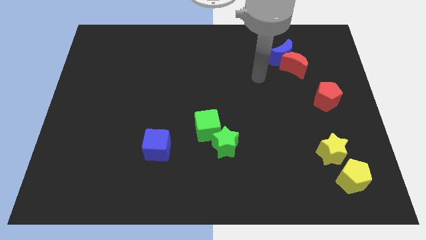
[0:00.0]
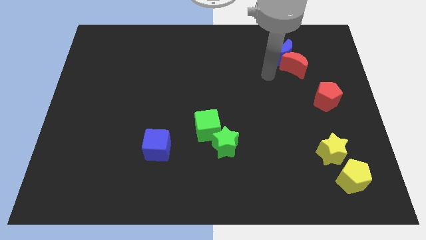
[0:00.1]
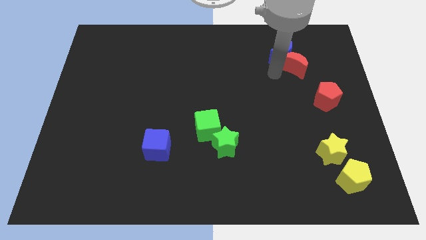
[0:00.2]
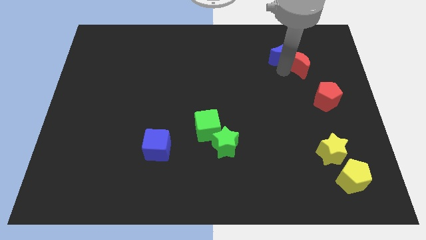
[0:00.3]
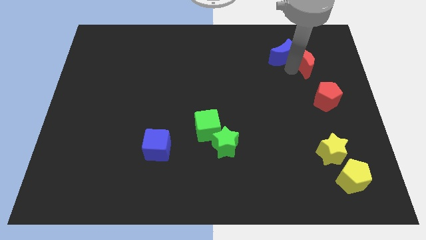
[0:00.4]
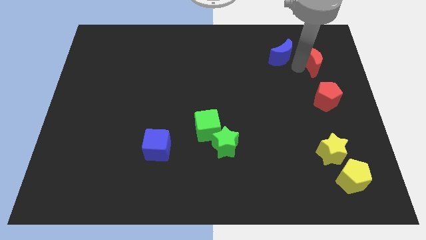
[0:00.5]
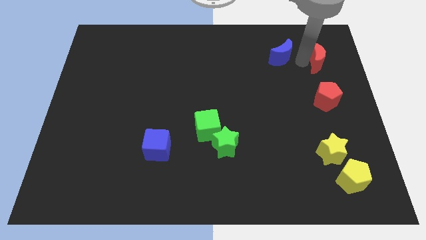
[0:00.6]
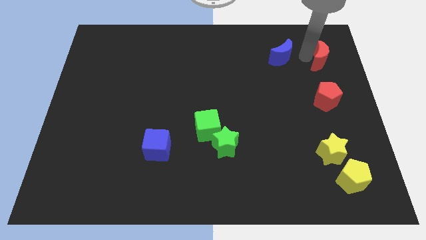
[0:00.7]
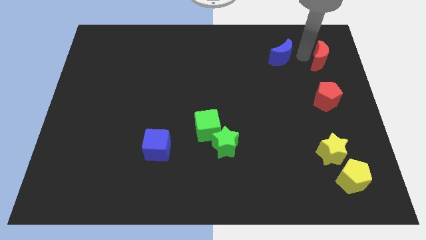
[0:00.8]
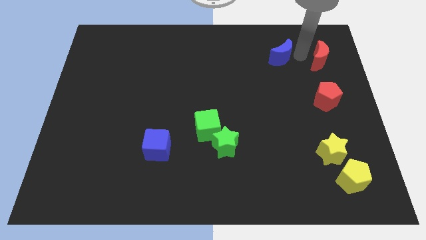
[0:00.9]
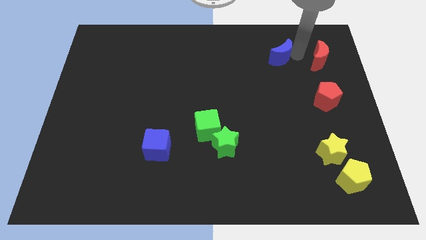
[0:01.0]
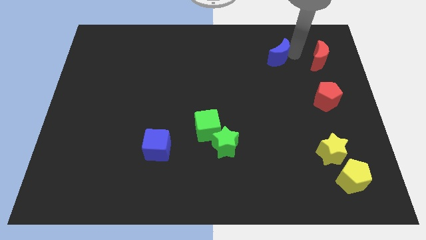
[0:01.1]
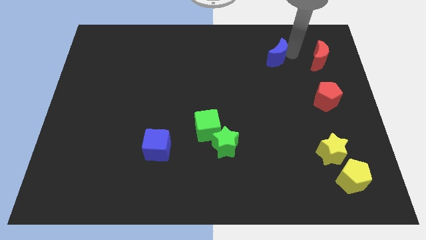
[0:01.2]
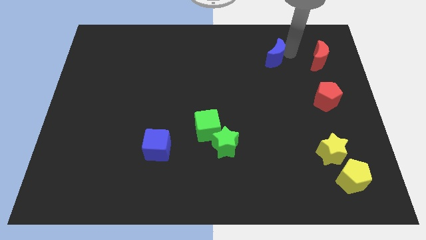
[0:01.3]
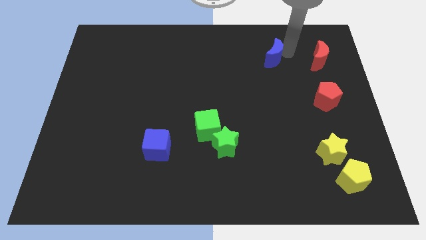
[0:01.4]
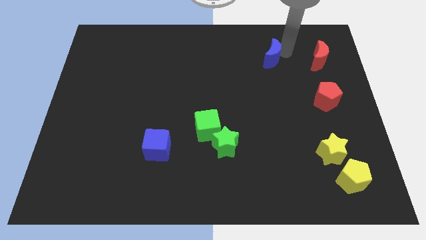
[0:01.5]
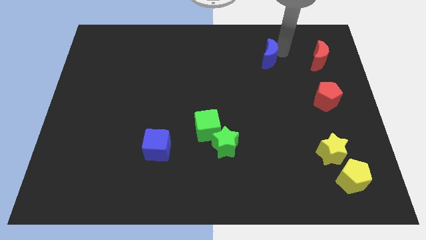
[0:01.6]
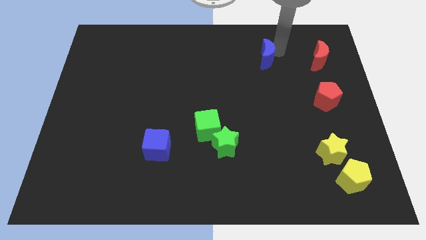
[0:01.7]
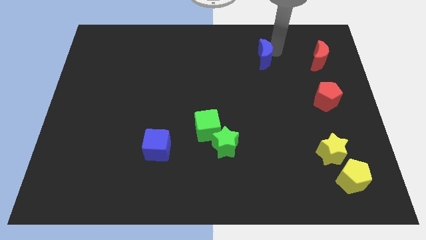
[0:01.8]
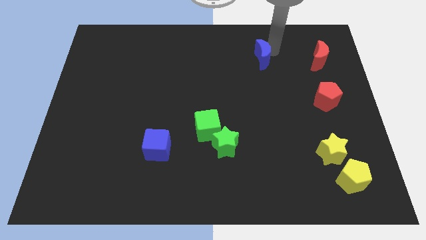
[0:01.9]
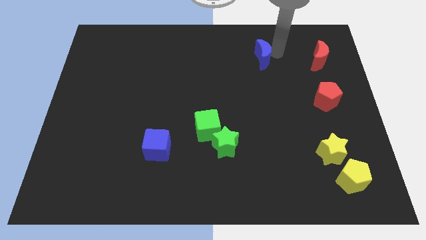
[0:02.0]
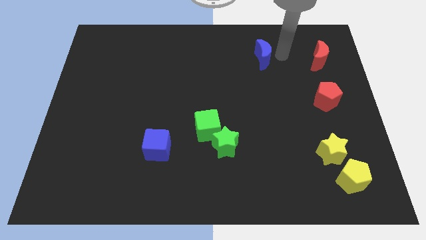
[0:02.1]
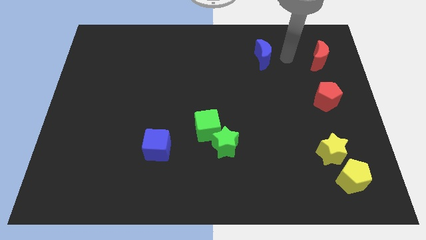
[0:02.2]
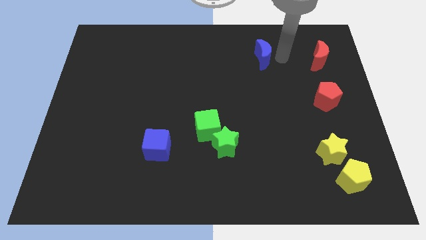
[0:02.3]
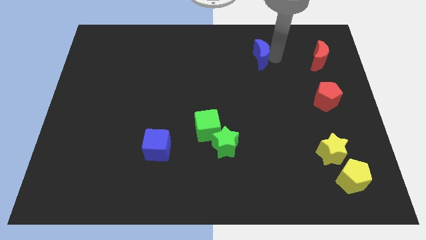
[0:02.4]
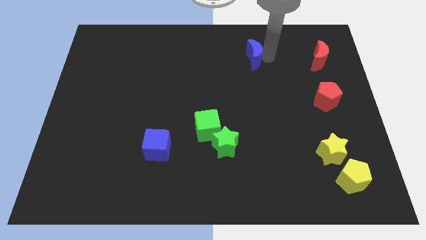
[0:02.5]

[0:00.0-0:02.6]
slightly push the blue moon to the left

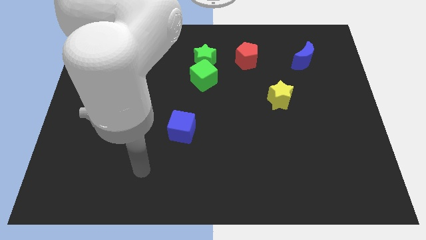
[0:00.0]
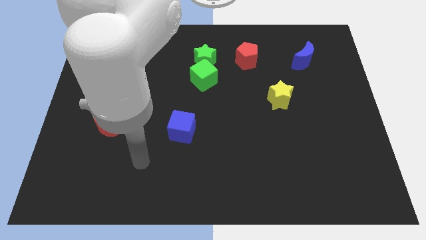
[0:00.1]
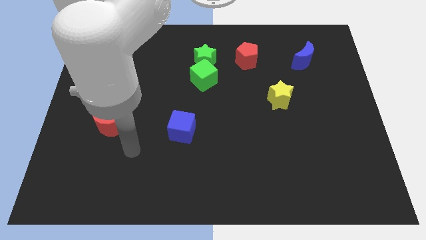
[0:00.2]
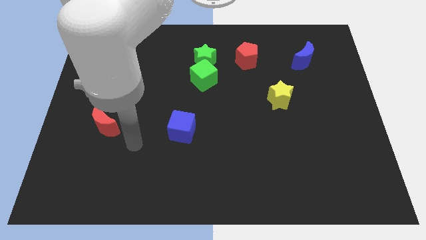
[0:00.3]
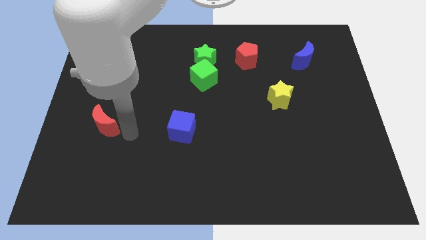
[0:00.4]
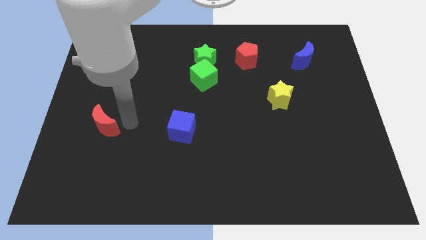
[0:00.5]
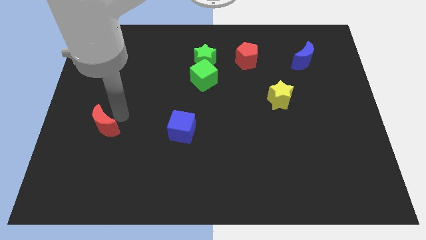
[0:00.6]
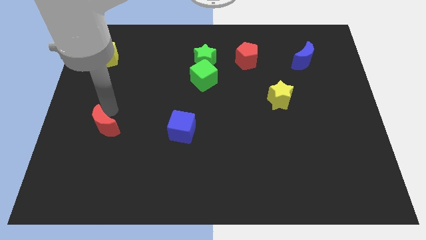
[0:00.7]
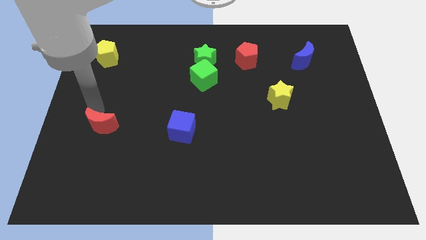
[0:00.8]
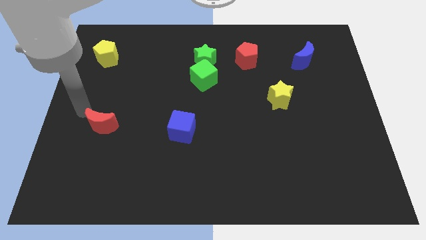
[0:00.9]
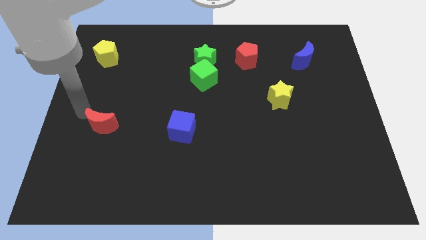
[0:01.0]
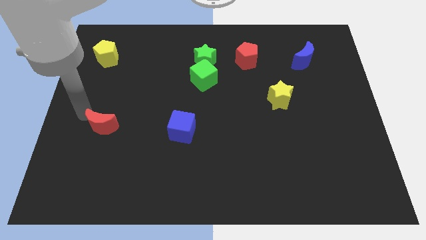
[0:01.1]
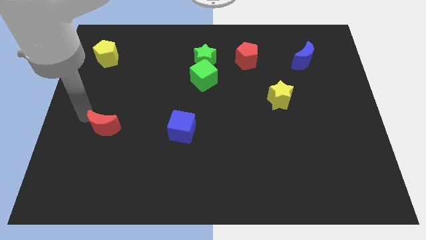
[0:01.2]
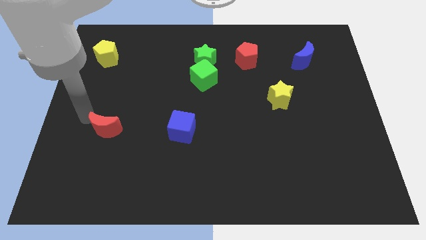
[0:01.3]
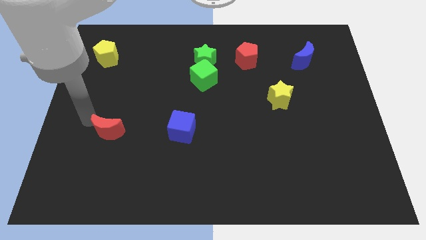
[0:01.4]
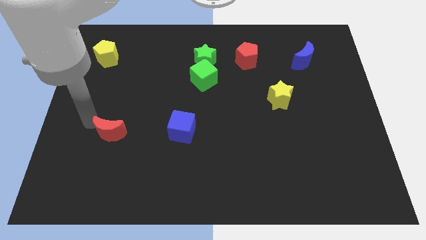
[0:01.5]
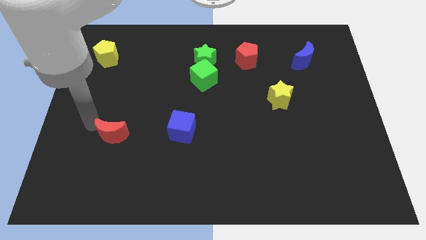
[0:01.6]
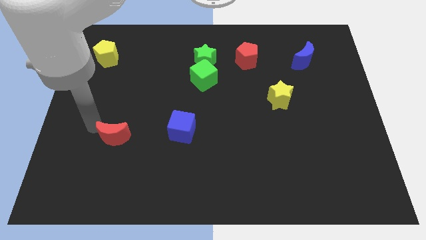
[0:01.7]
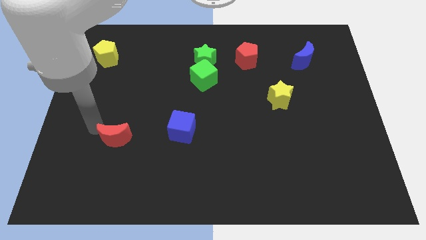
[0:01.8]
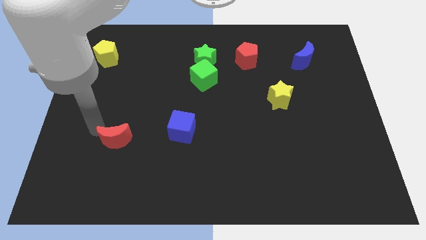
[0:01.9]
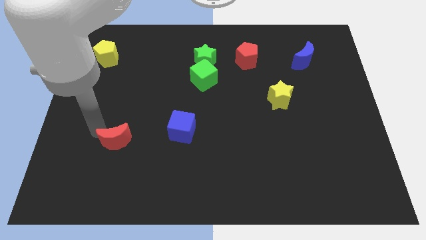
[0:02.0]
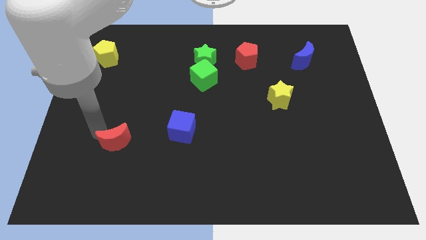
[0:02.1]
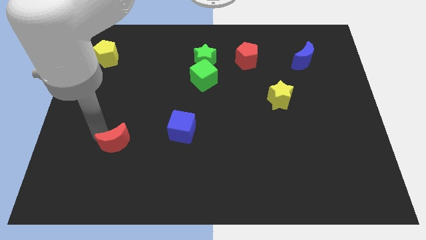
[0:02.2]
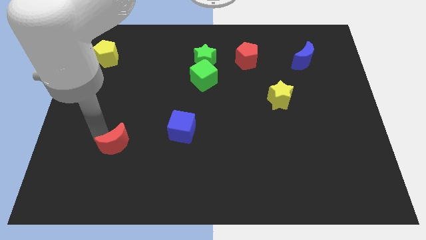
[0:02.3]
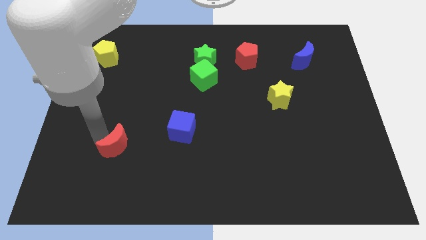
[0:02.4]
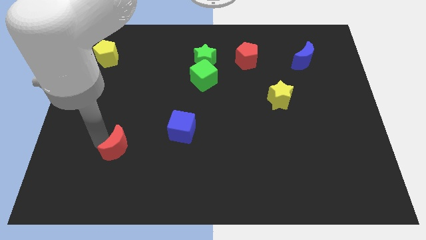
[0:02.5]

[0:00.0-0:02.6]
move the red moon somewhat down and to the right diagonally

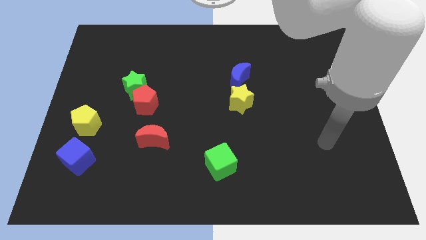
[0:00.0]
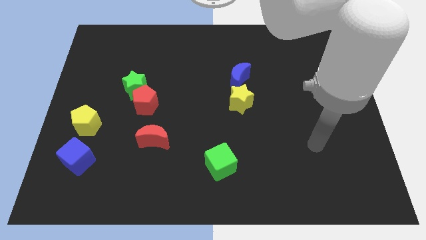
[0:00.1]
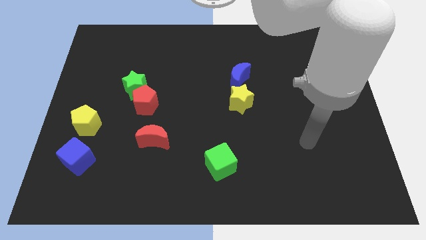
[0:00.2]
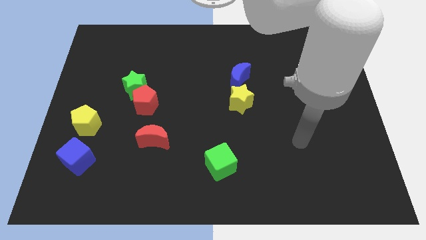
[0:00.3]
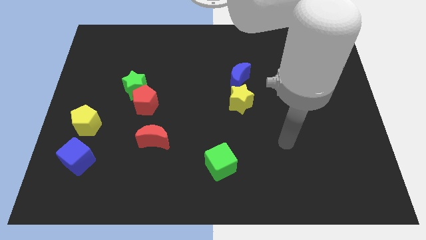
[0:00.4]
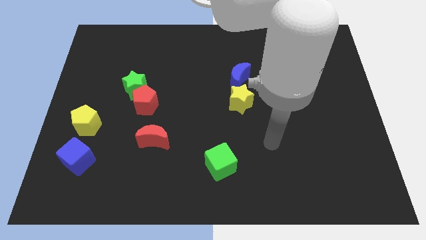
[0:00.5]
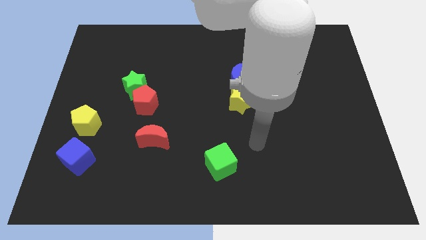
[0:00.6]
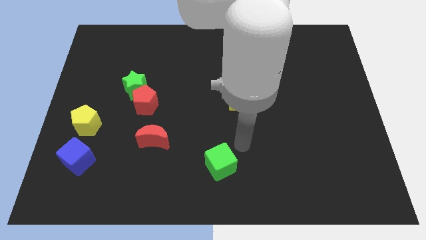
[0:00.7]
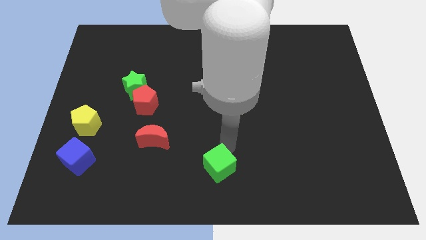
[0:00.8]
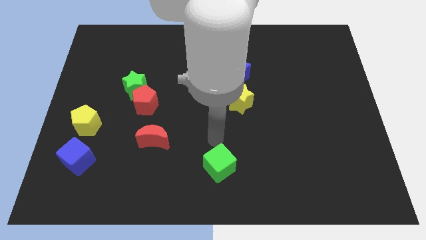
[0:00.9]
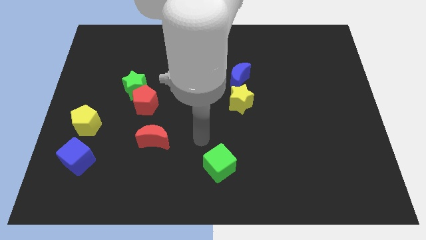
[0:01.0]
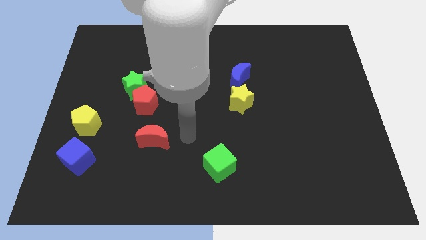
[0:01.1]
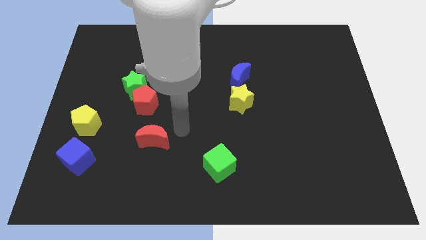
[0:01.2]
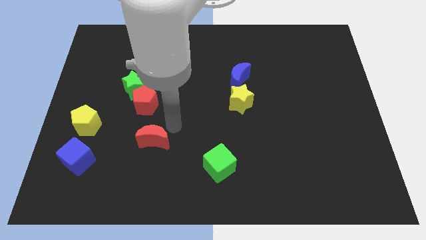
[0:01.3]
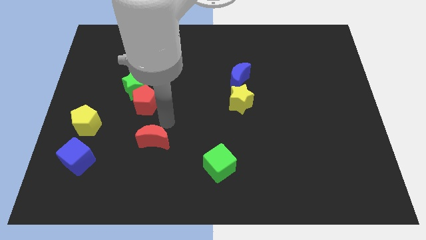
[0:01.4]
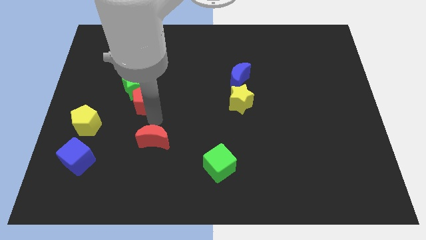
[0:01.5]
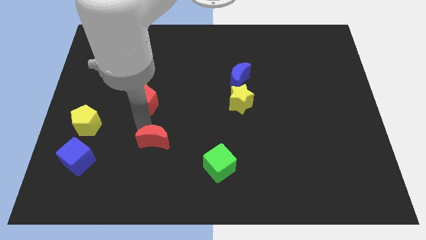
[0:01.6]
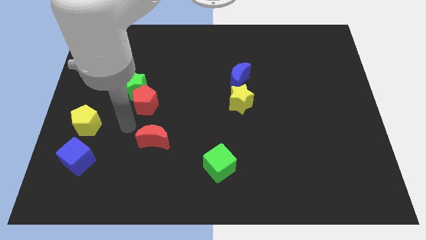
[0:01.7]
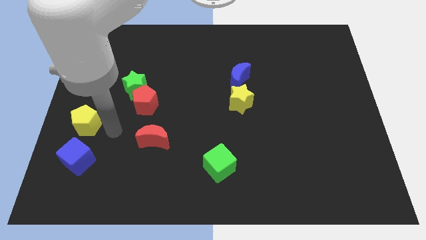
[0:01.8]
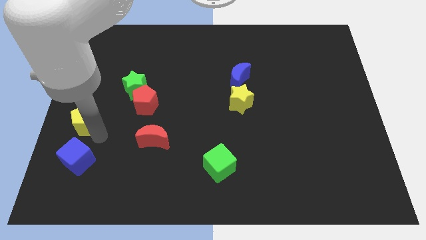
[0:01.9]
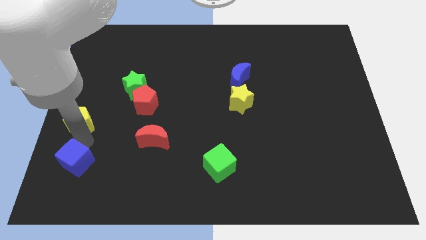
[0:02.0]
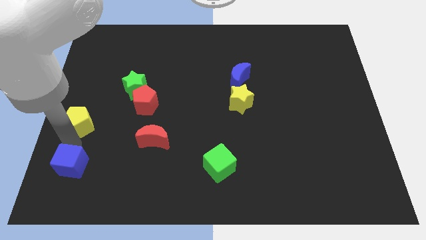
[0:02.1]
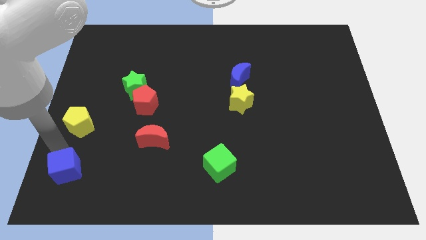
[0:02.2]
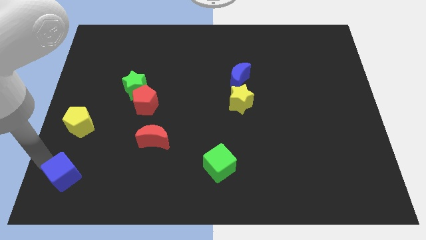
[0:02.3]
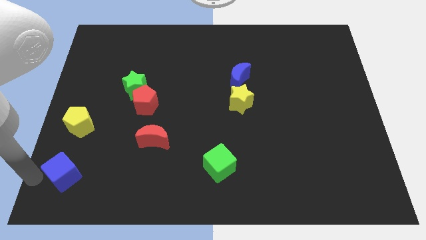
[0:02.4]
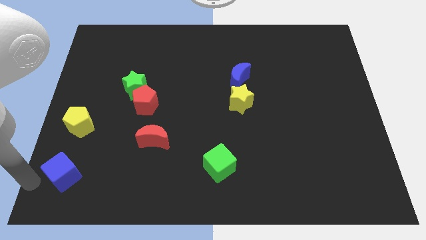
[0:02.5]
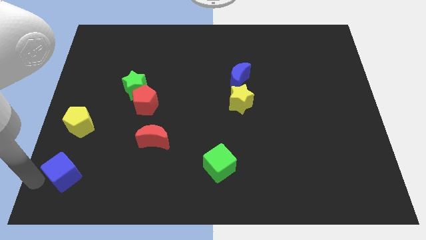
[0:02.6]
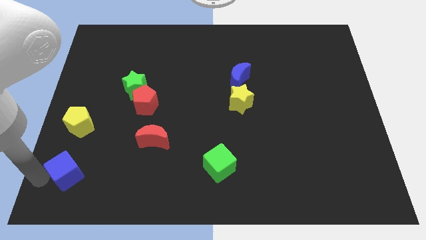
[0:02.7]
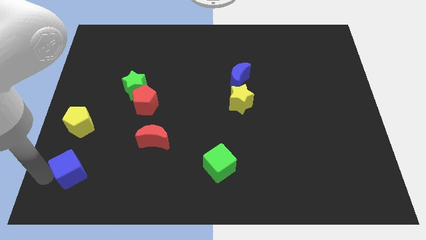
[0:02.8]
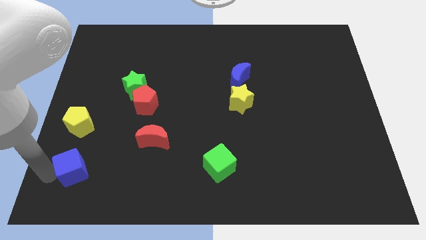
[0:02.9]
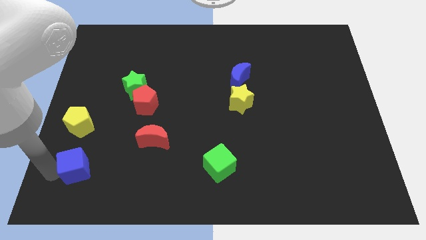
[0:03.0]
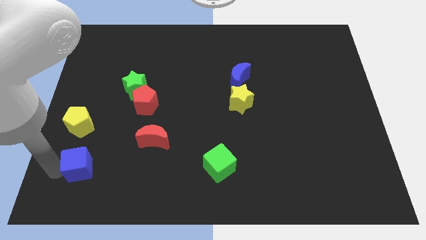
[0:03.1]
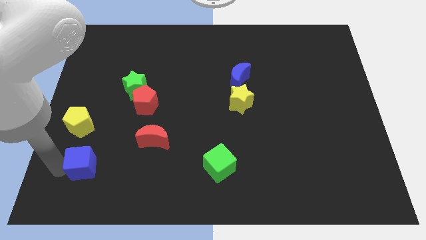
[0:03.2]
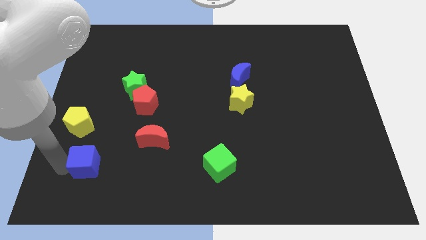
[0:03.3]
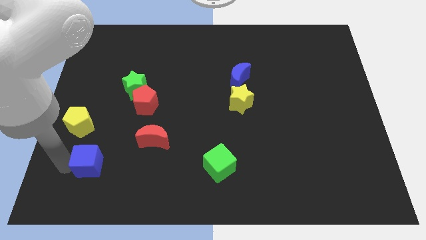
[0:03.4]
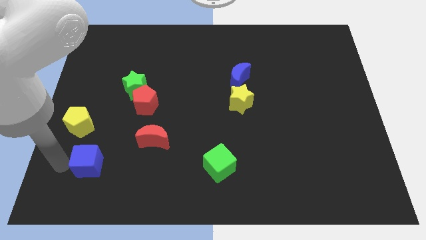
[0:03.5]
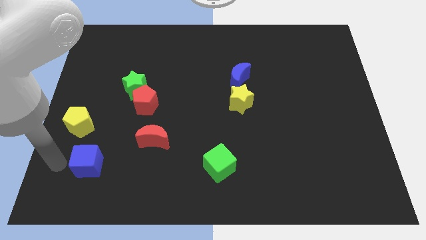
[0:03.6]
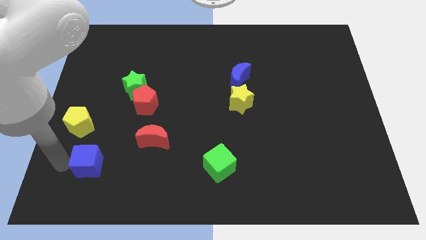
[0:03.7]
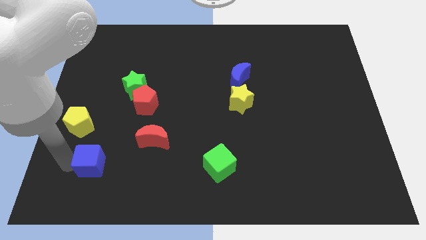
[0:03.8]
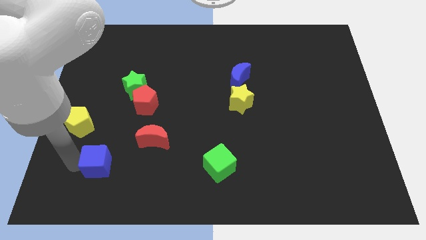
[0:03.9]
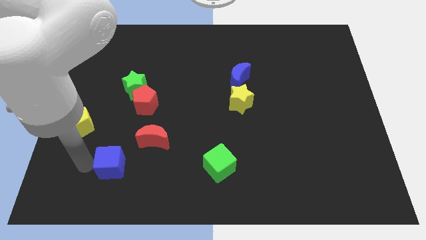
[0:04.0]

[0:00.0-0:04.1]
move the blue cube to the right a little
